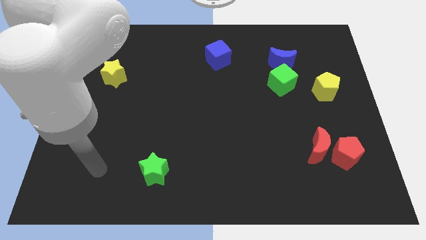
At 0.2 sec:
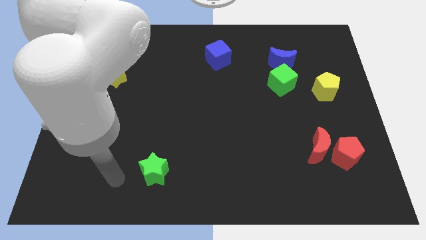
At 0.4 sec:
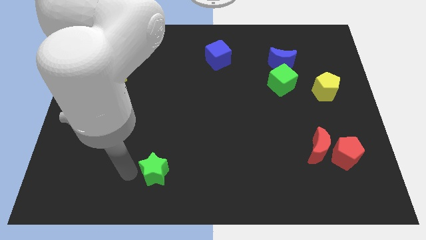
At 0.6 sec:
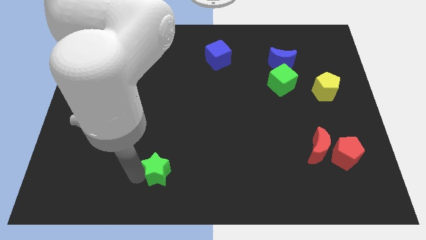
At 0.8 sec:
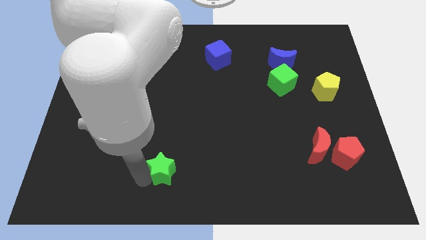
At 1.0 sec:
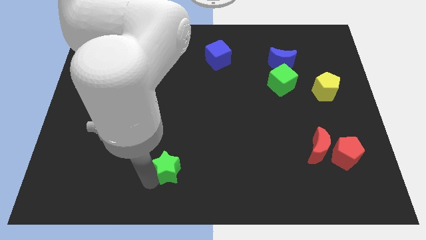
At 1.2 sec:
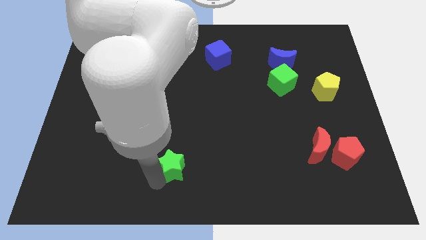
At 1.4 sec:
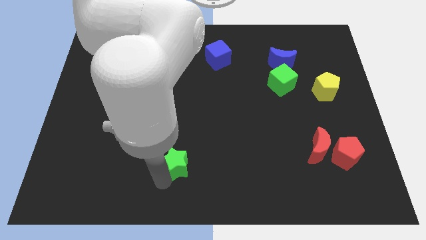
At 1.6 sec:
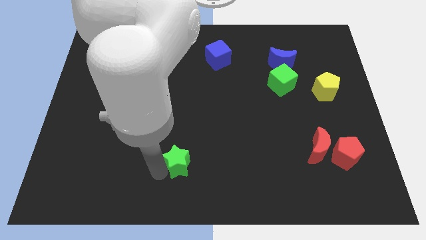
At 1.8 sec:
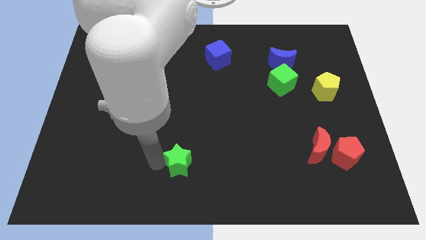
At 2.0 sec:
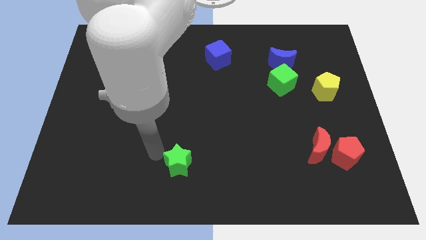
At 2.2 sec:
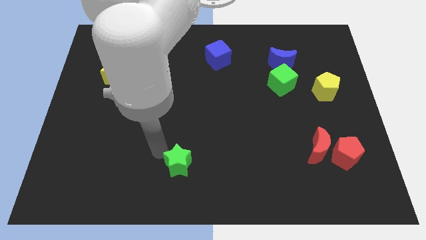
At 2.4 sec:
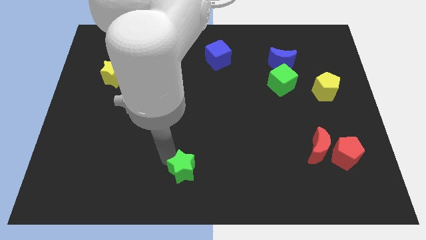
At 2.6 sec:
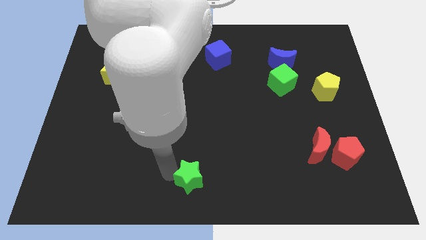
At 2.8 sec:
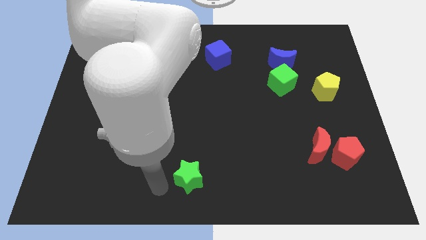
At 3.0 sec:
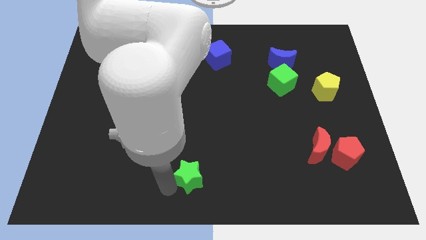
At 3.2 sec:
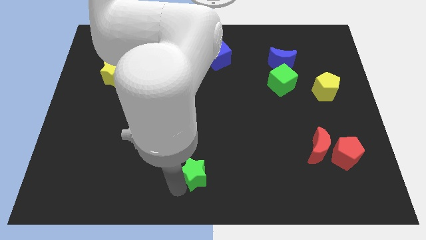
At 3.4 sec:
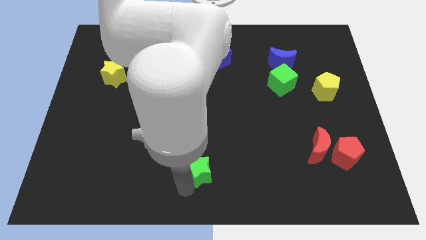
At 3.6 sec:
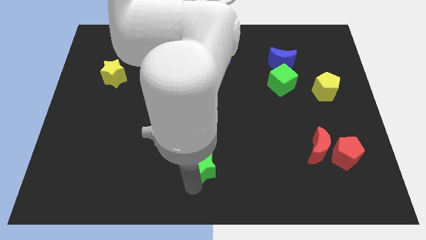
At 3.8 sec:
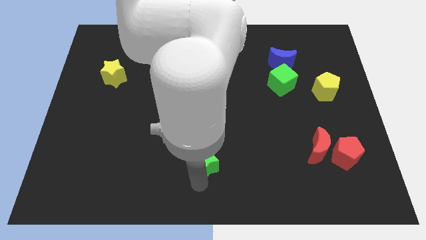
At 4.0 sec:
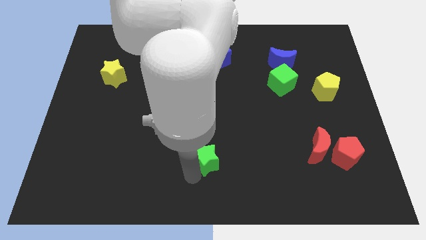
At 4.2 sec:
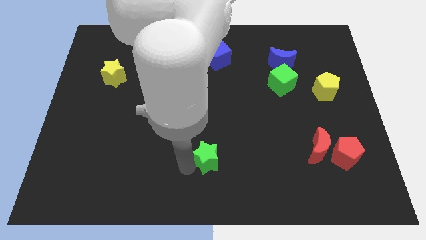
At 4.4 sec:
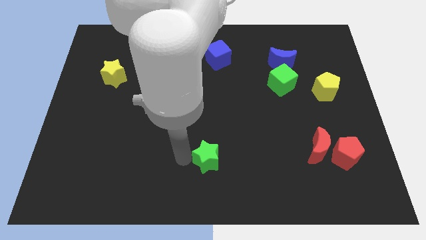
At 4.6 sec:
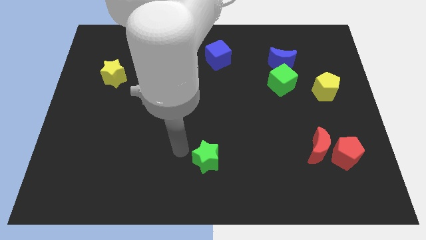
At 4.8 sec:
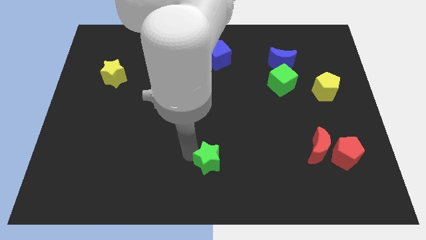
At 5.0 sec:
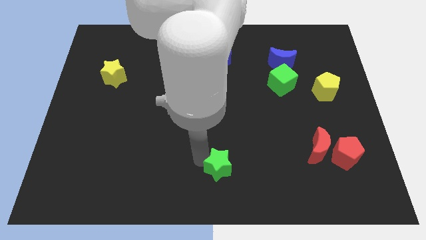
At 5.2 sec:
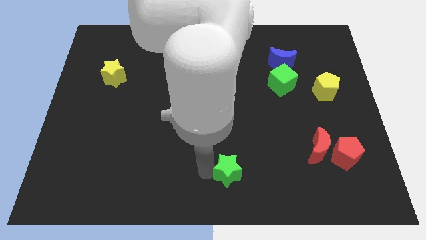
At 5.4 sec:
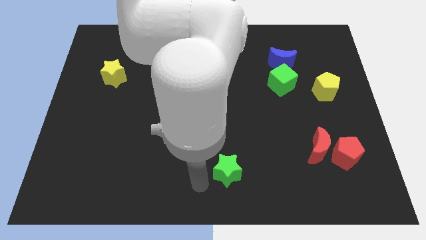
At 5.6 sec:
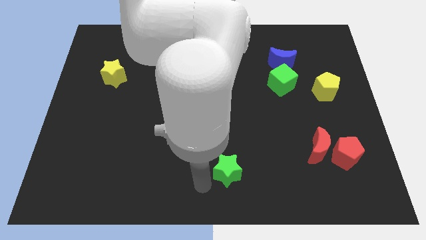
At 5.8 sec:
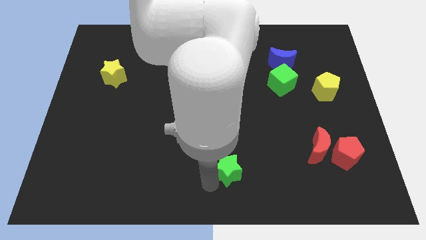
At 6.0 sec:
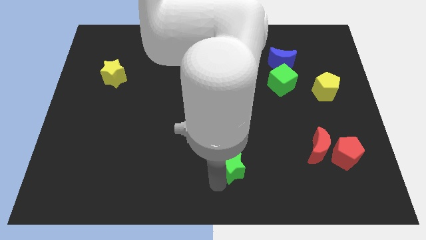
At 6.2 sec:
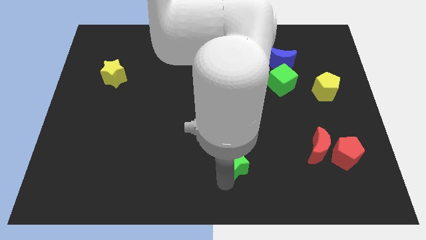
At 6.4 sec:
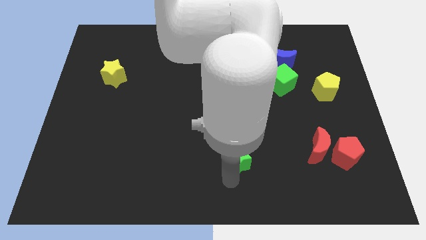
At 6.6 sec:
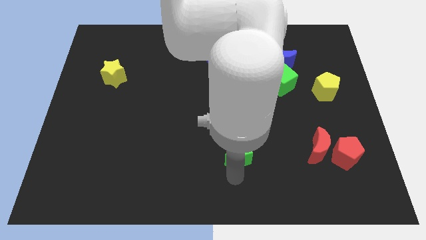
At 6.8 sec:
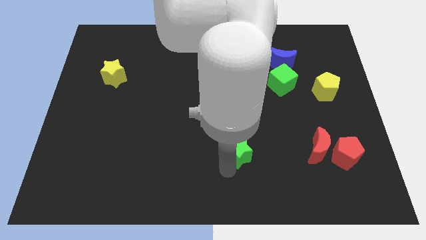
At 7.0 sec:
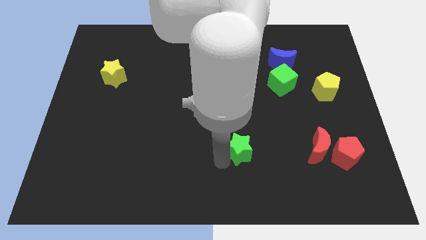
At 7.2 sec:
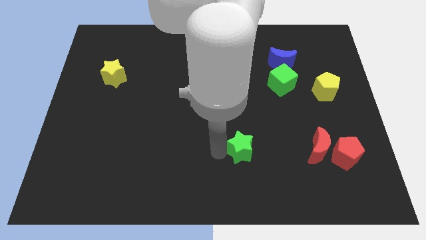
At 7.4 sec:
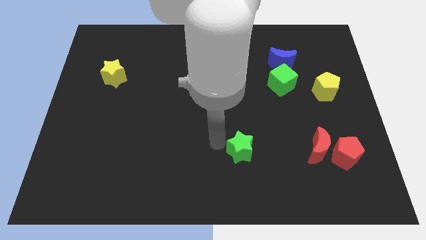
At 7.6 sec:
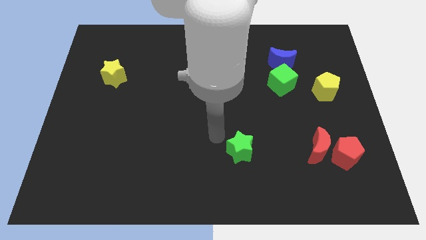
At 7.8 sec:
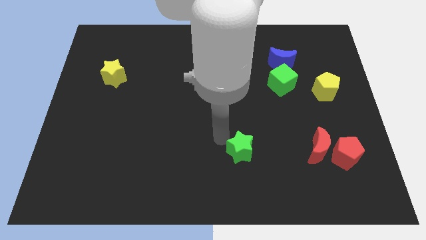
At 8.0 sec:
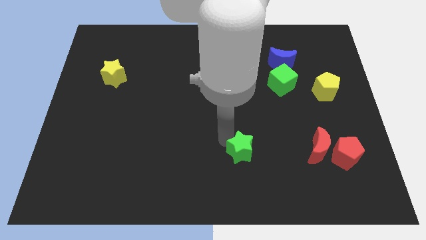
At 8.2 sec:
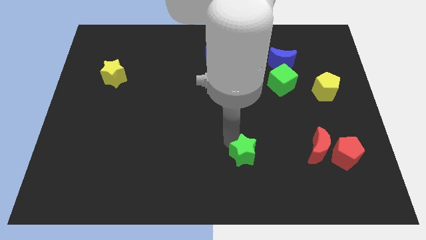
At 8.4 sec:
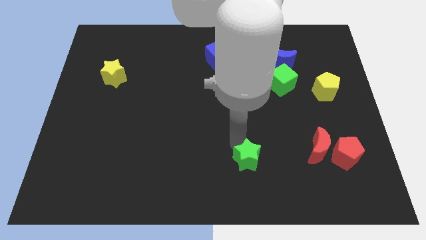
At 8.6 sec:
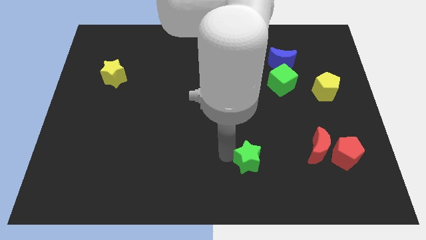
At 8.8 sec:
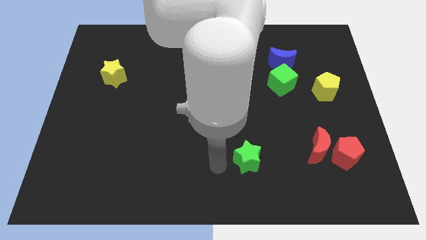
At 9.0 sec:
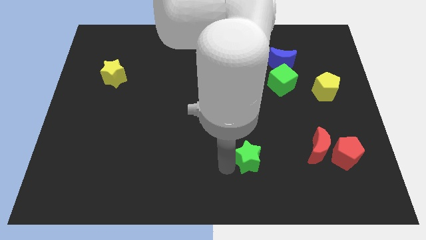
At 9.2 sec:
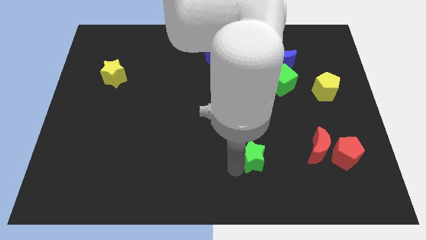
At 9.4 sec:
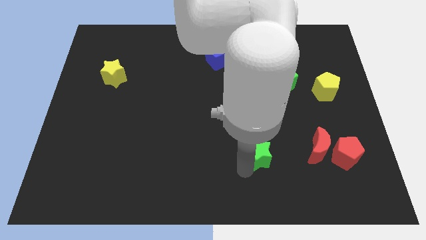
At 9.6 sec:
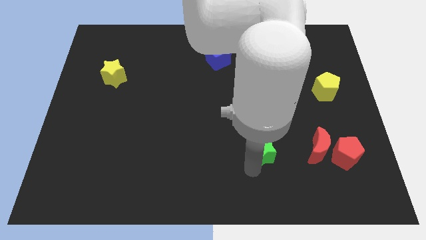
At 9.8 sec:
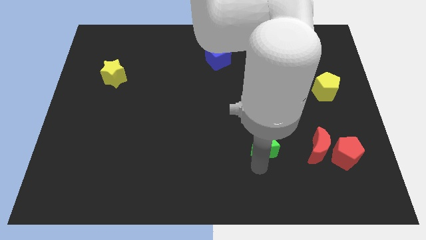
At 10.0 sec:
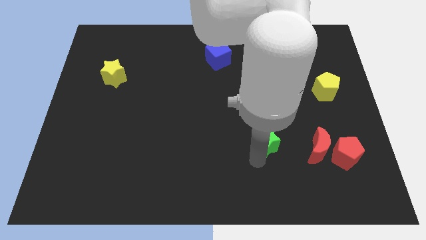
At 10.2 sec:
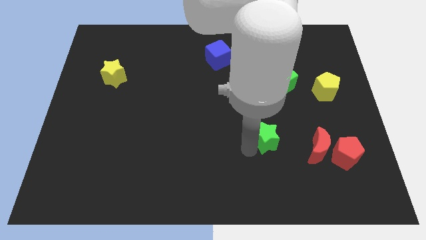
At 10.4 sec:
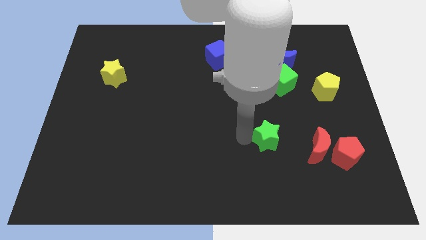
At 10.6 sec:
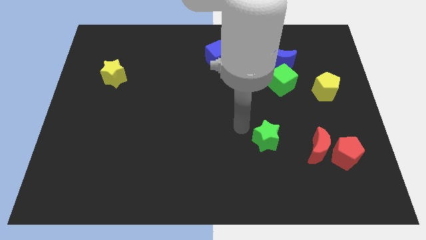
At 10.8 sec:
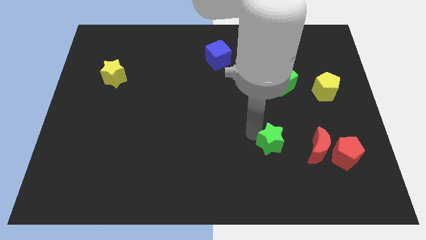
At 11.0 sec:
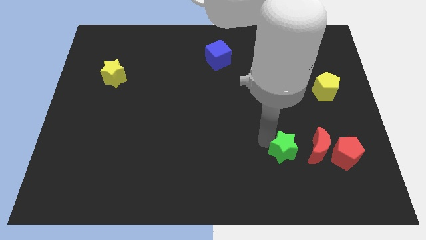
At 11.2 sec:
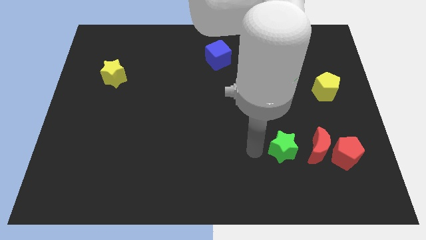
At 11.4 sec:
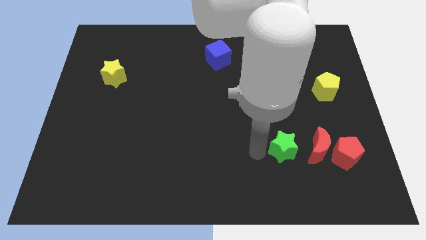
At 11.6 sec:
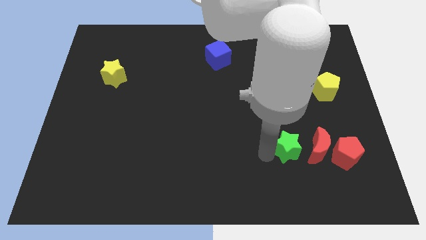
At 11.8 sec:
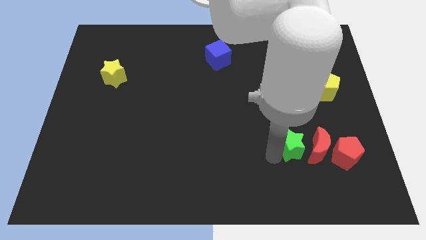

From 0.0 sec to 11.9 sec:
push the green star next to the red moon

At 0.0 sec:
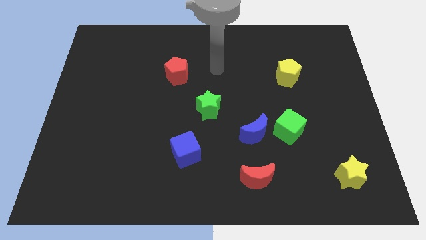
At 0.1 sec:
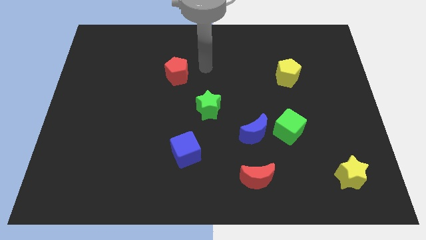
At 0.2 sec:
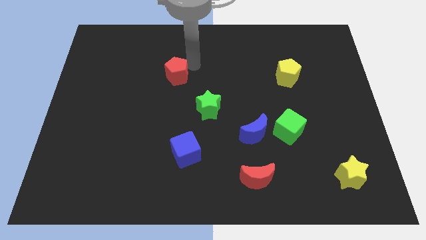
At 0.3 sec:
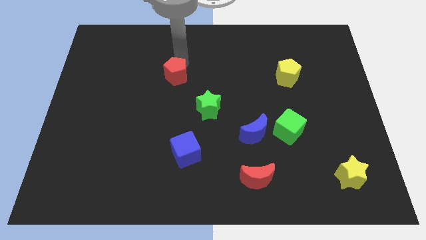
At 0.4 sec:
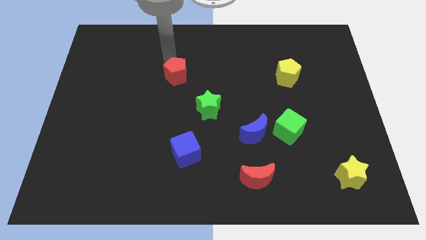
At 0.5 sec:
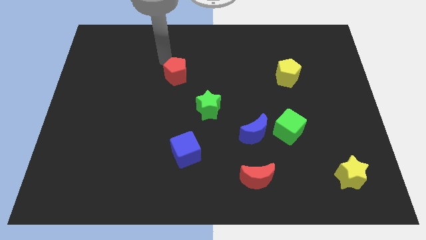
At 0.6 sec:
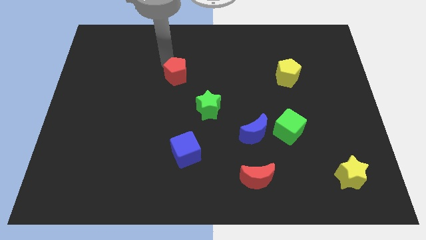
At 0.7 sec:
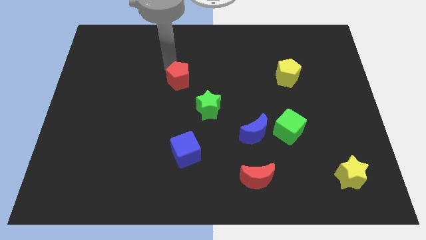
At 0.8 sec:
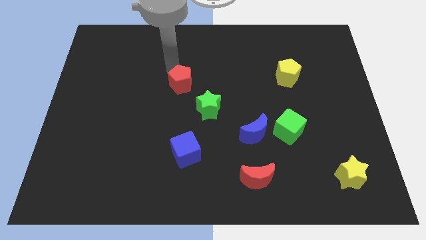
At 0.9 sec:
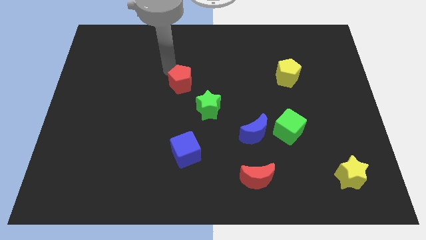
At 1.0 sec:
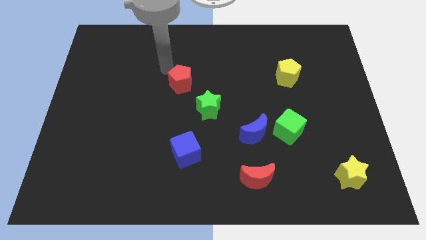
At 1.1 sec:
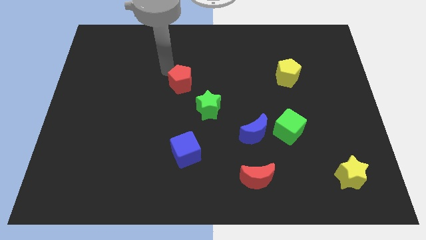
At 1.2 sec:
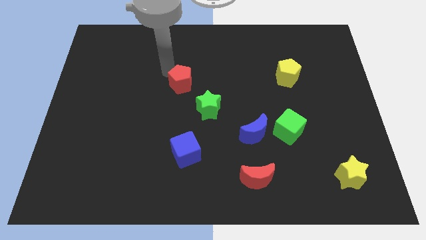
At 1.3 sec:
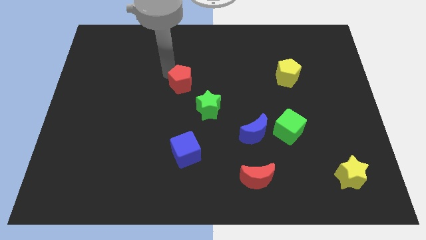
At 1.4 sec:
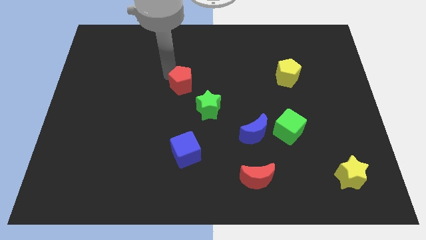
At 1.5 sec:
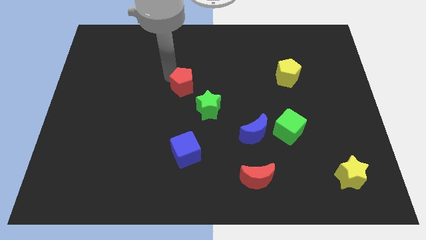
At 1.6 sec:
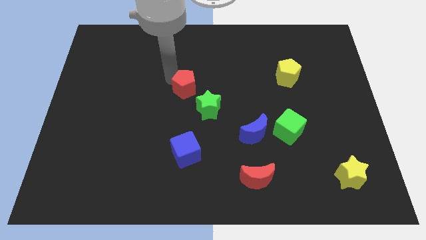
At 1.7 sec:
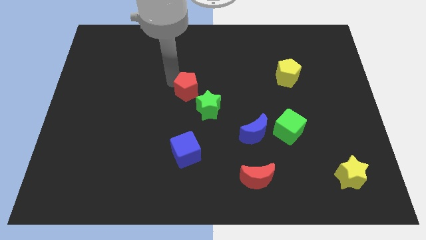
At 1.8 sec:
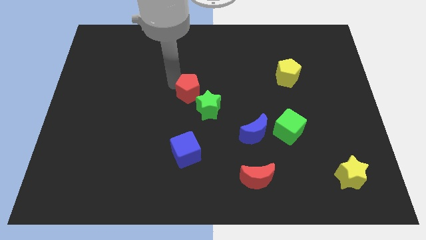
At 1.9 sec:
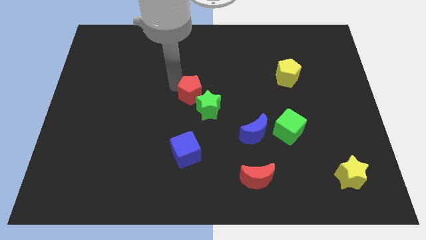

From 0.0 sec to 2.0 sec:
move the red pentagon close to the green star
